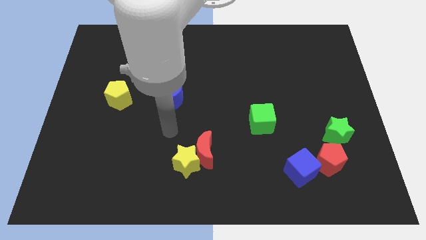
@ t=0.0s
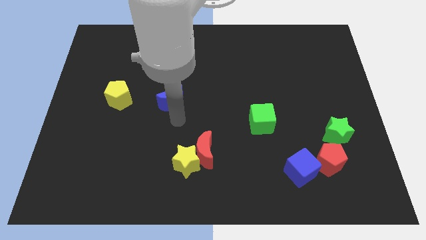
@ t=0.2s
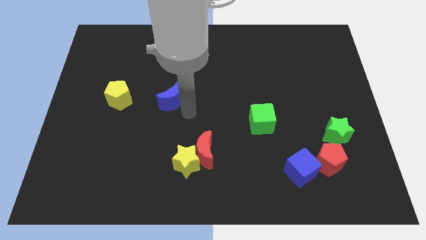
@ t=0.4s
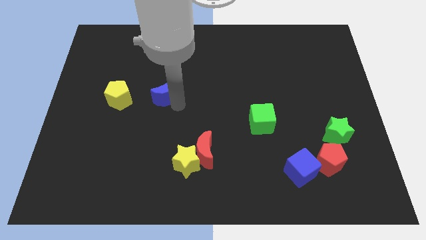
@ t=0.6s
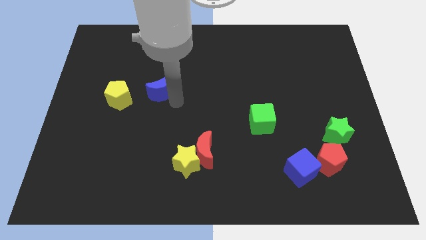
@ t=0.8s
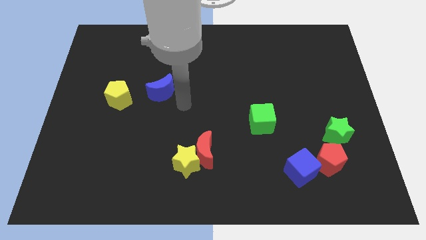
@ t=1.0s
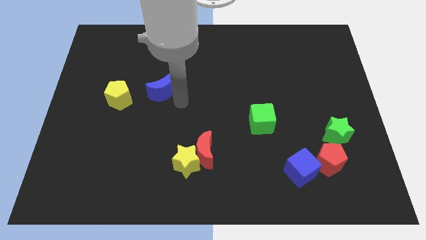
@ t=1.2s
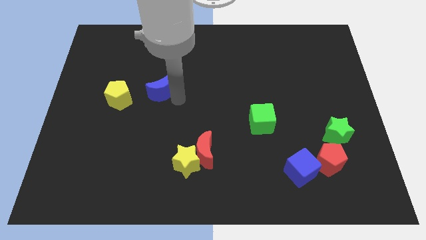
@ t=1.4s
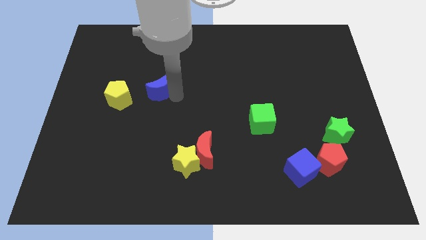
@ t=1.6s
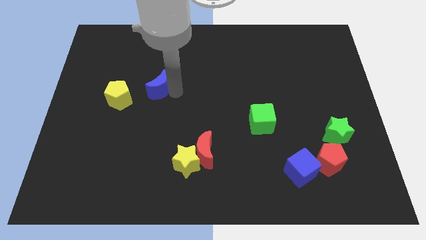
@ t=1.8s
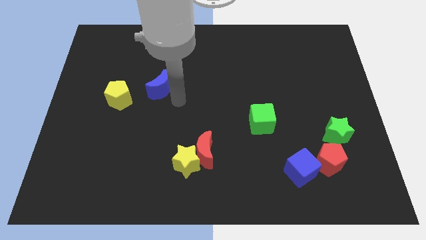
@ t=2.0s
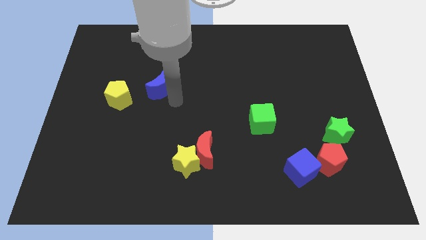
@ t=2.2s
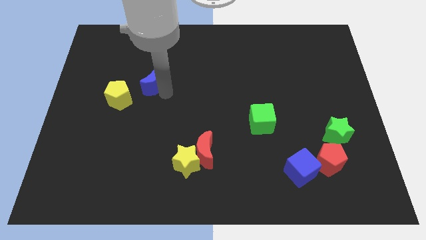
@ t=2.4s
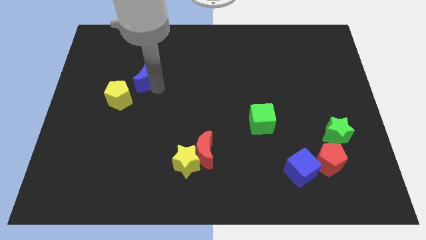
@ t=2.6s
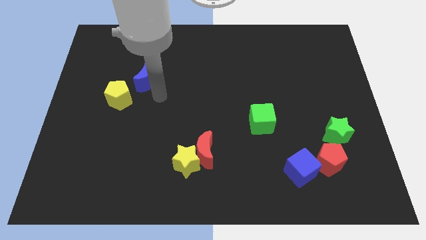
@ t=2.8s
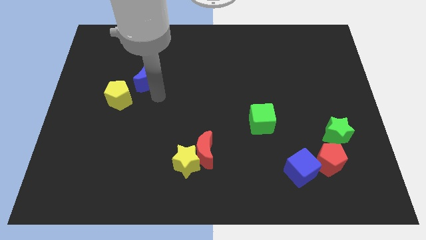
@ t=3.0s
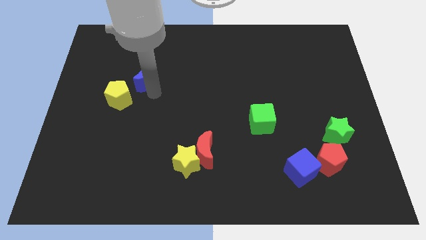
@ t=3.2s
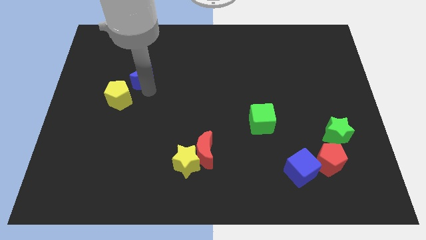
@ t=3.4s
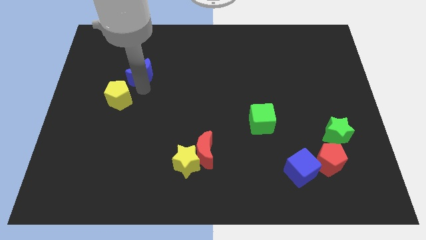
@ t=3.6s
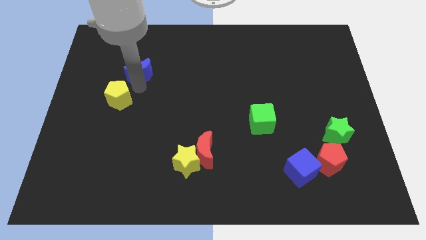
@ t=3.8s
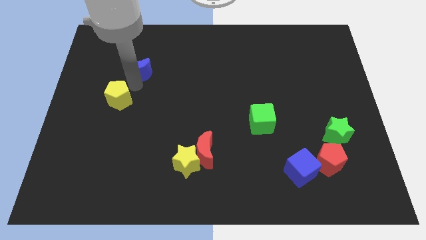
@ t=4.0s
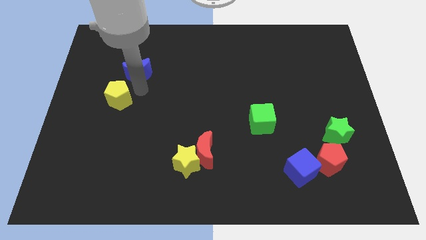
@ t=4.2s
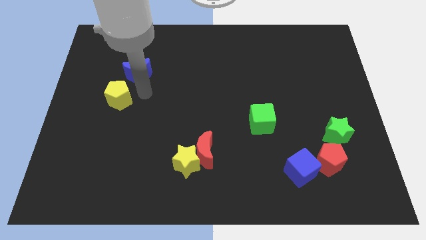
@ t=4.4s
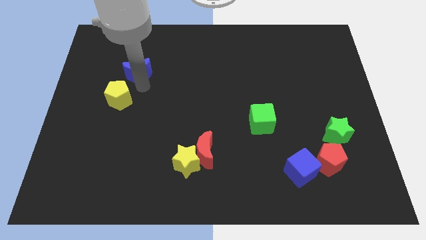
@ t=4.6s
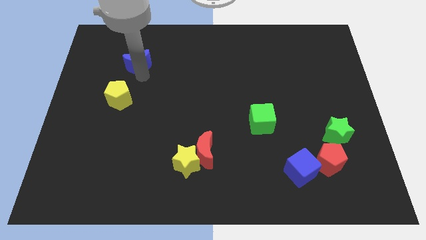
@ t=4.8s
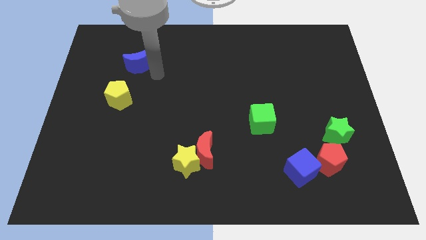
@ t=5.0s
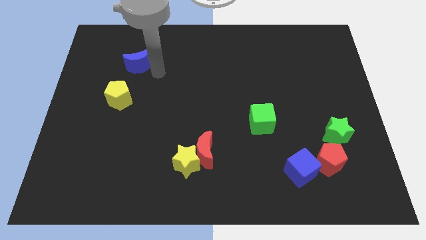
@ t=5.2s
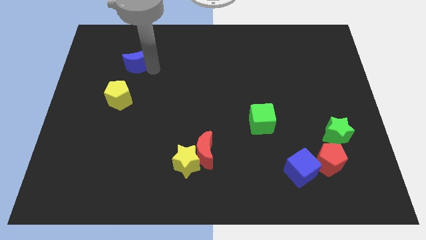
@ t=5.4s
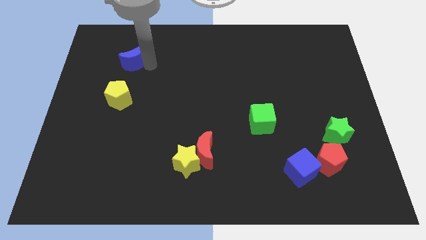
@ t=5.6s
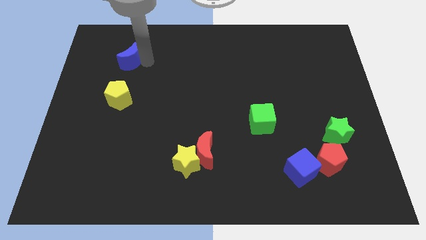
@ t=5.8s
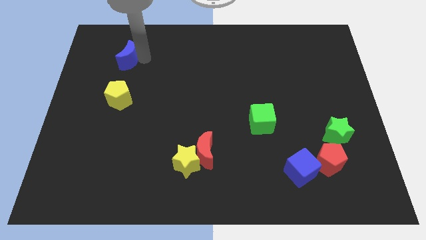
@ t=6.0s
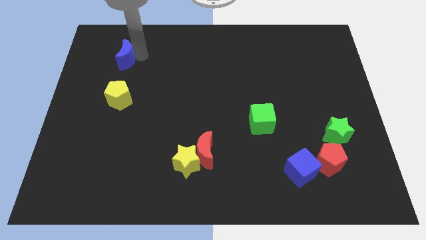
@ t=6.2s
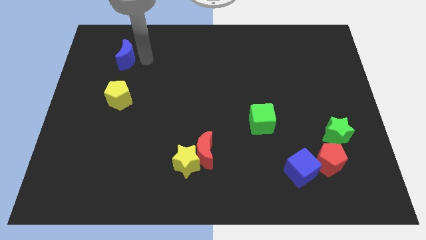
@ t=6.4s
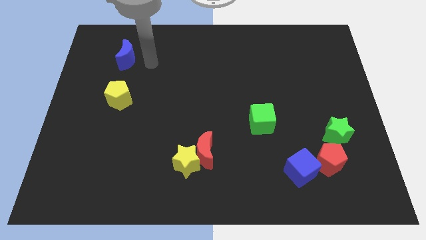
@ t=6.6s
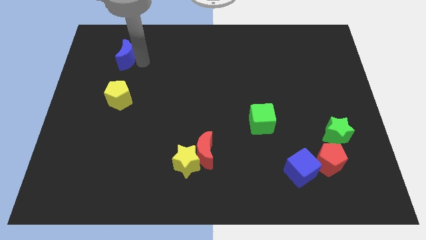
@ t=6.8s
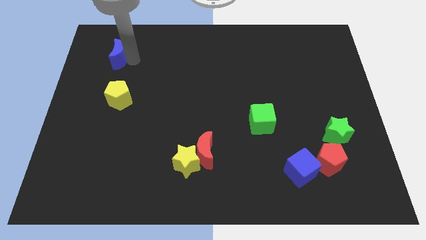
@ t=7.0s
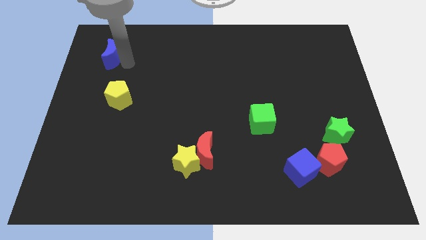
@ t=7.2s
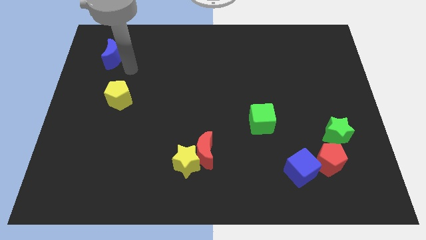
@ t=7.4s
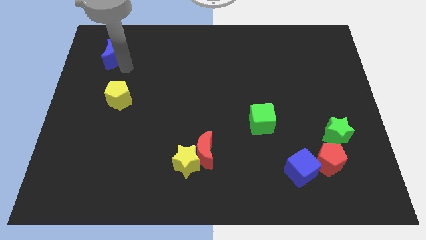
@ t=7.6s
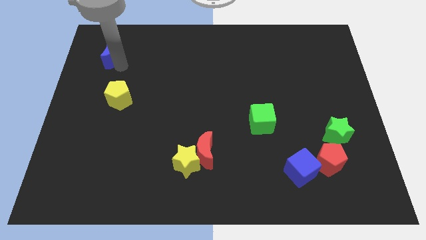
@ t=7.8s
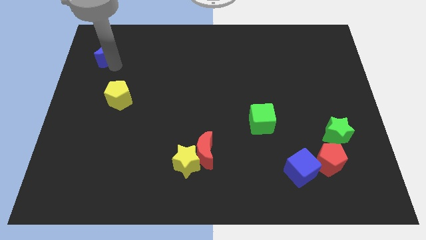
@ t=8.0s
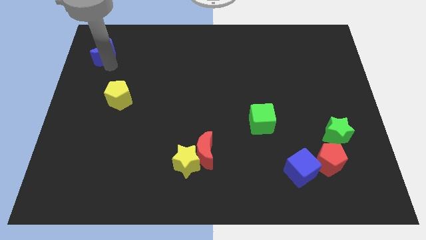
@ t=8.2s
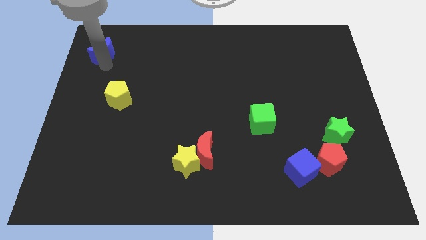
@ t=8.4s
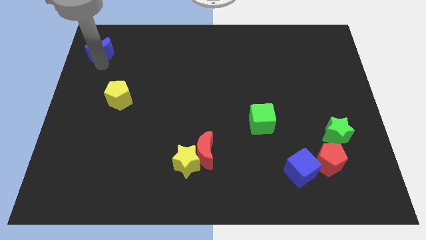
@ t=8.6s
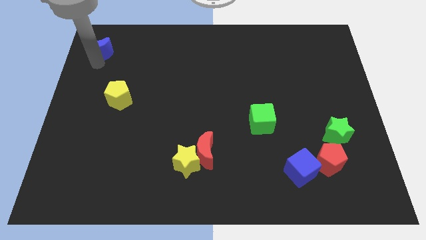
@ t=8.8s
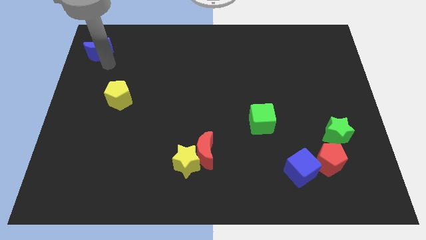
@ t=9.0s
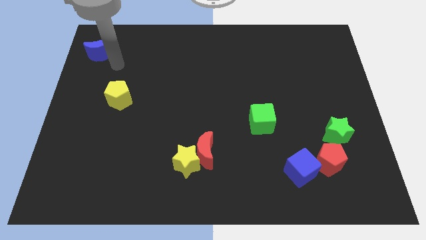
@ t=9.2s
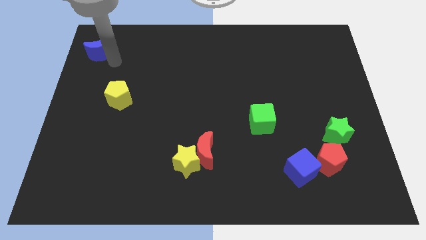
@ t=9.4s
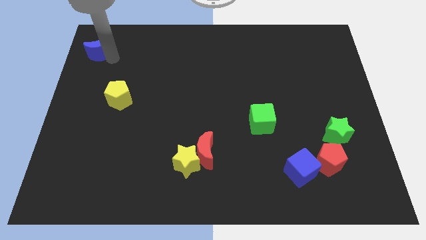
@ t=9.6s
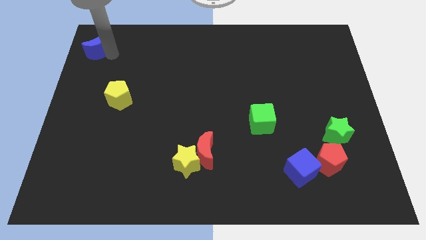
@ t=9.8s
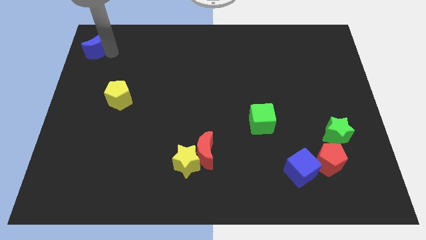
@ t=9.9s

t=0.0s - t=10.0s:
slide the blue moon to the top left corner

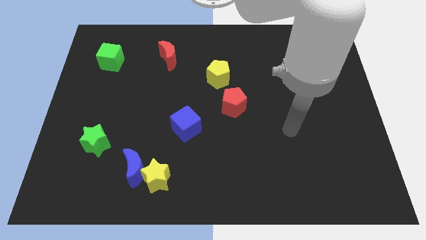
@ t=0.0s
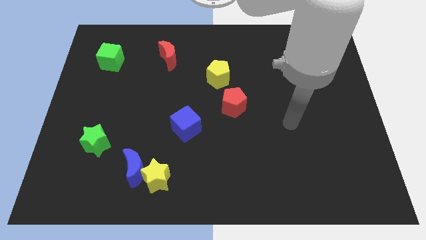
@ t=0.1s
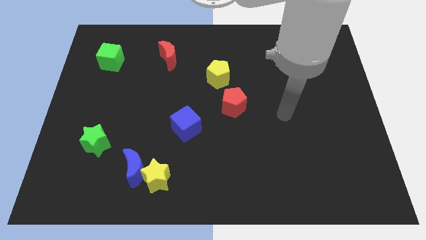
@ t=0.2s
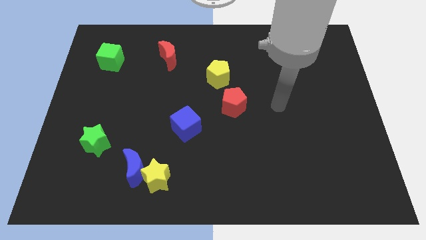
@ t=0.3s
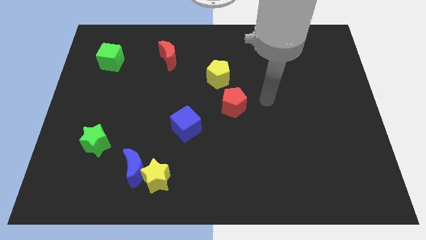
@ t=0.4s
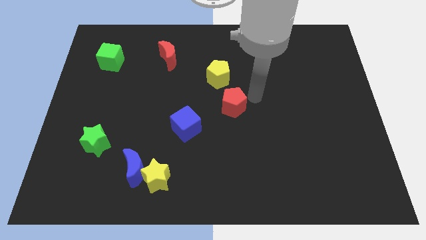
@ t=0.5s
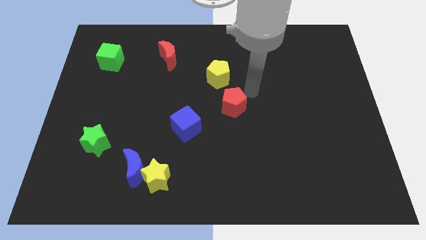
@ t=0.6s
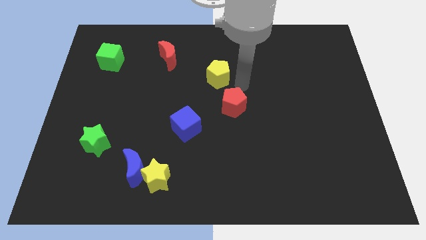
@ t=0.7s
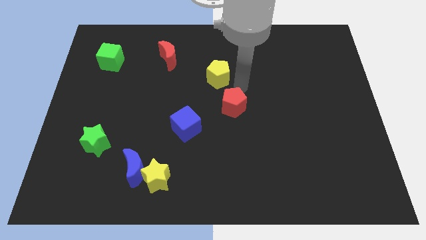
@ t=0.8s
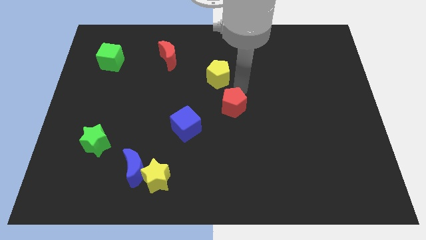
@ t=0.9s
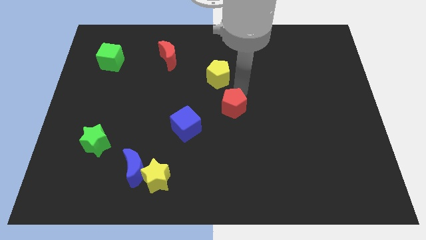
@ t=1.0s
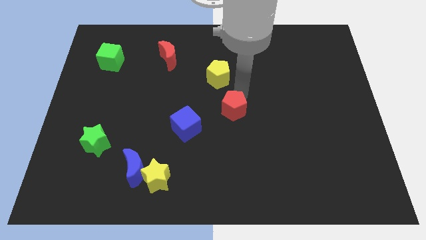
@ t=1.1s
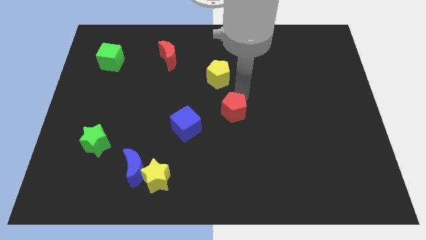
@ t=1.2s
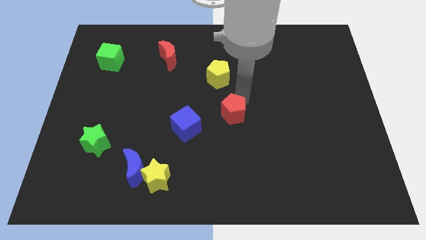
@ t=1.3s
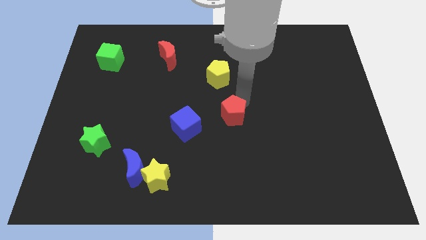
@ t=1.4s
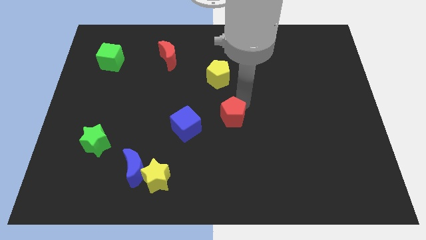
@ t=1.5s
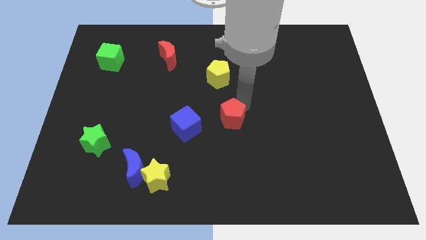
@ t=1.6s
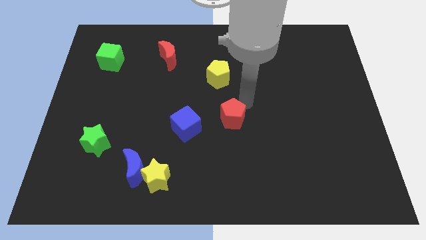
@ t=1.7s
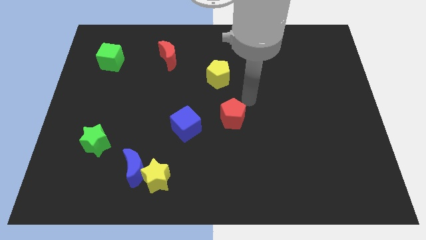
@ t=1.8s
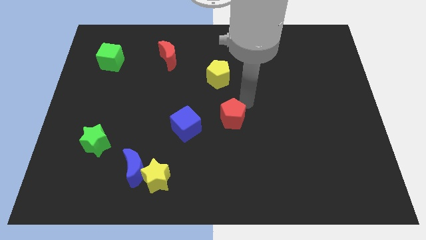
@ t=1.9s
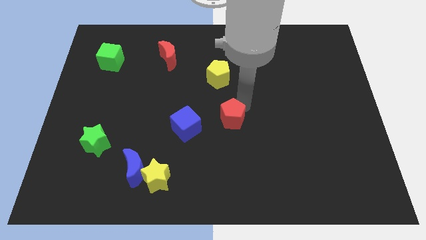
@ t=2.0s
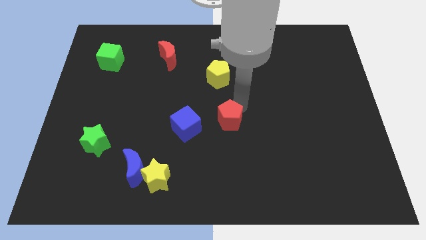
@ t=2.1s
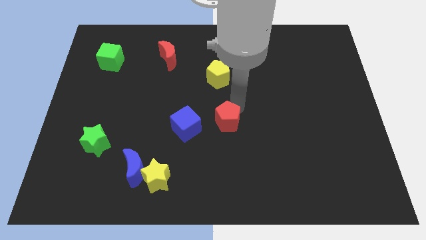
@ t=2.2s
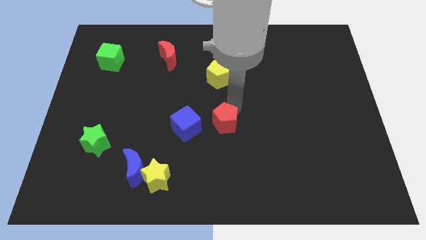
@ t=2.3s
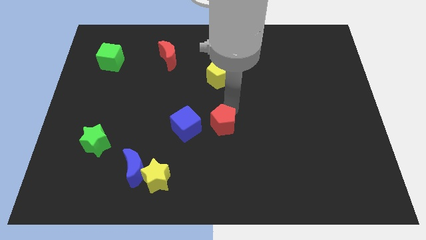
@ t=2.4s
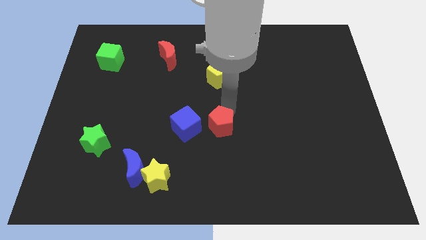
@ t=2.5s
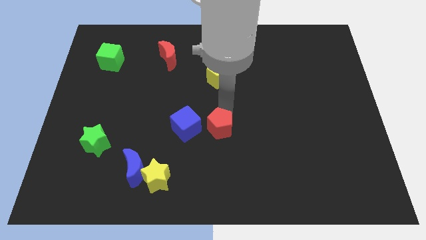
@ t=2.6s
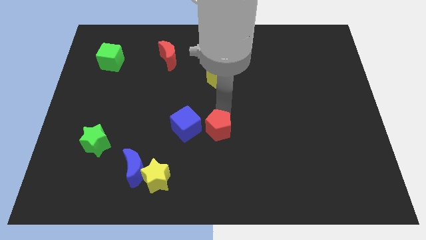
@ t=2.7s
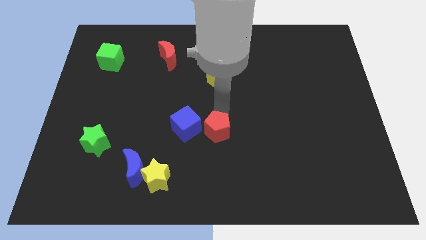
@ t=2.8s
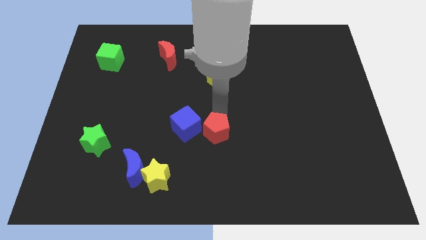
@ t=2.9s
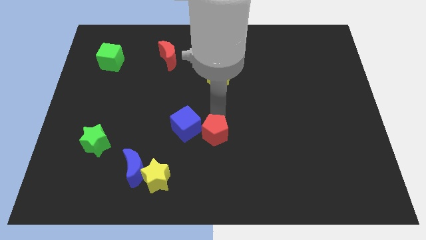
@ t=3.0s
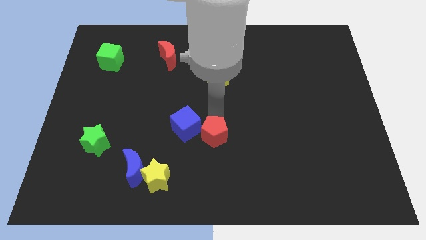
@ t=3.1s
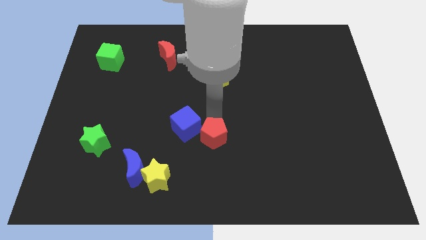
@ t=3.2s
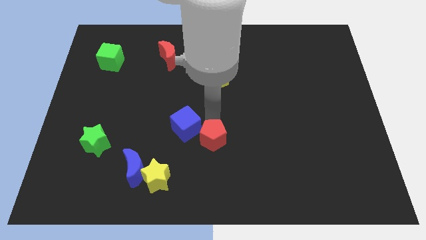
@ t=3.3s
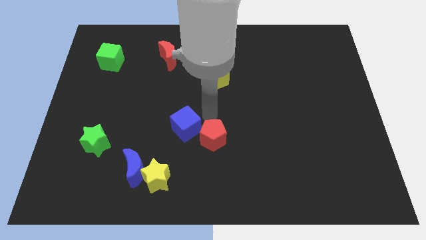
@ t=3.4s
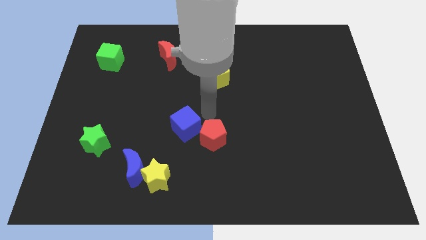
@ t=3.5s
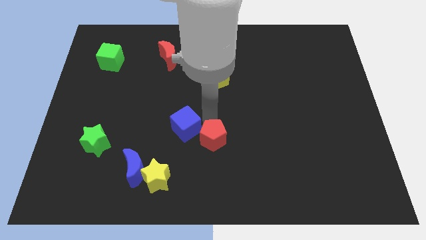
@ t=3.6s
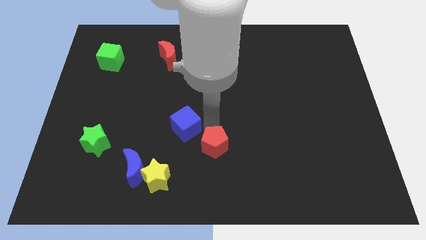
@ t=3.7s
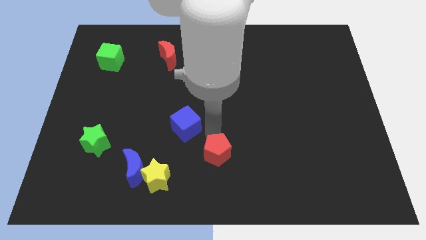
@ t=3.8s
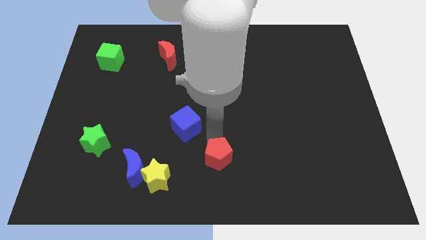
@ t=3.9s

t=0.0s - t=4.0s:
put the red pentagon to the bottom
